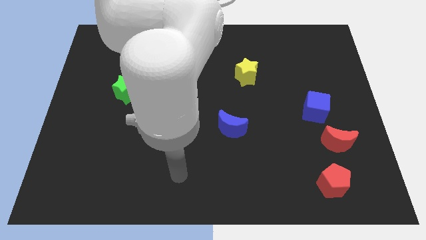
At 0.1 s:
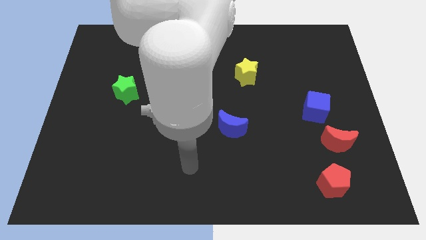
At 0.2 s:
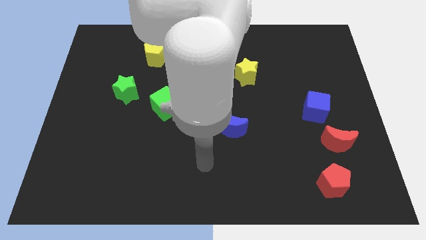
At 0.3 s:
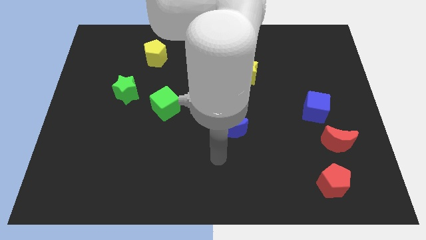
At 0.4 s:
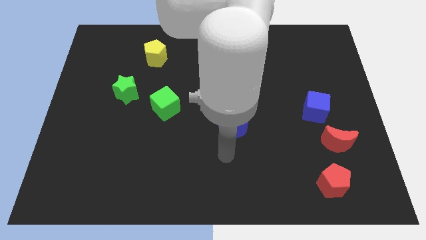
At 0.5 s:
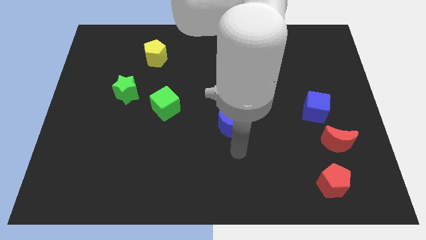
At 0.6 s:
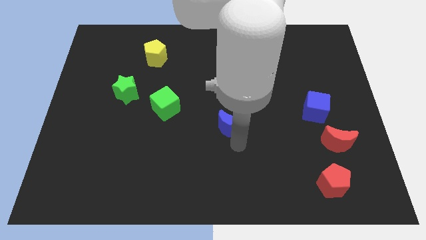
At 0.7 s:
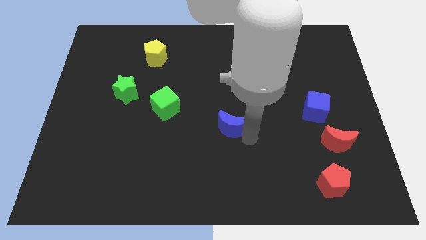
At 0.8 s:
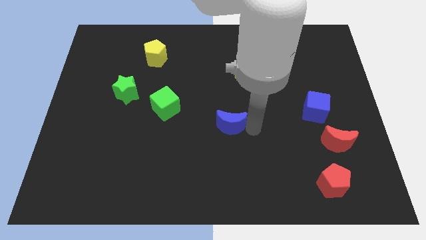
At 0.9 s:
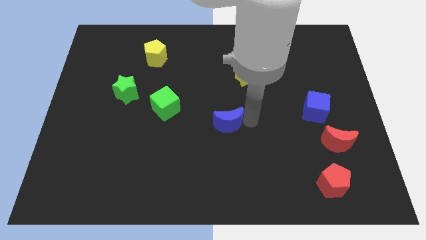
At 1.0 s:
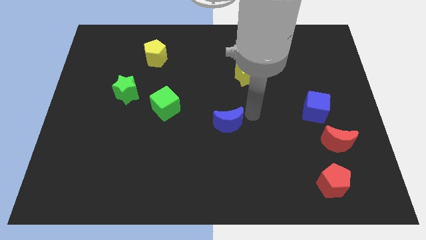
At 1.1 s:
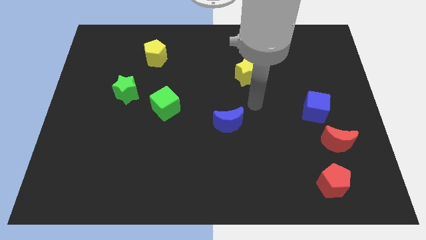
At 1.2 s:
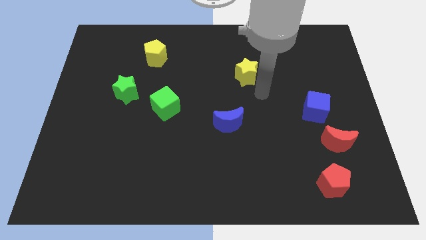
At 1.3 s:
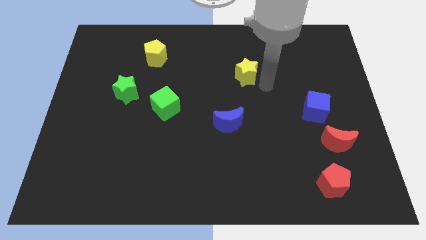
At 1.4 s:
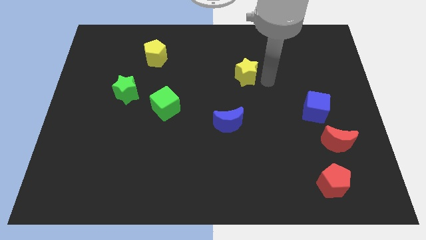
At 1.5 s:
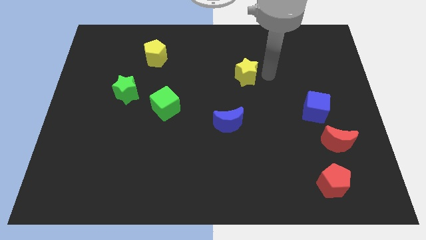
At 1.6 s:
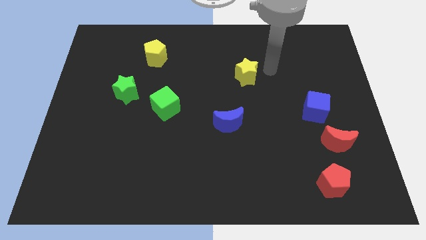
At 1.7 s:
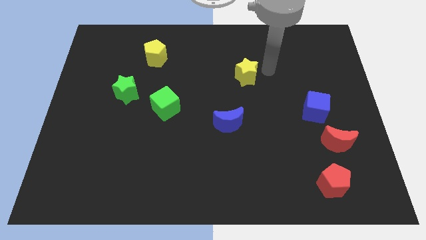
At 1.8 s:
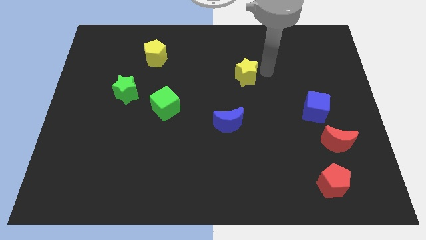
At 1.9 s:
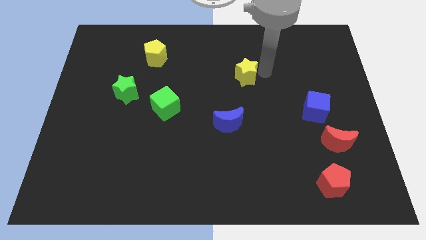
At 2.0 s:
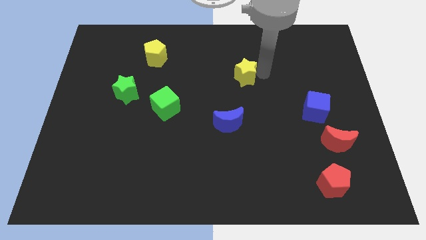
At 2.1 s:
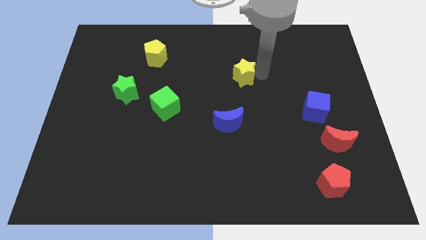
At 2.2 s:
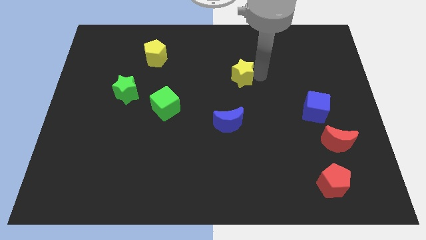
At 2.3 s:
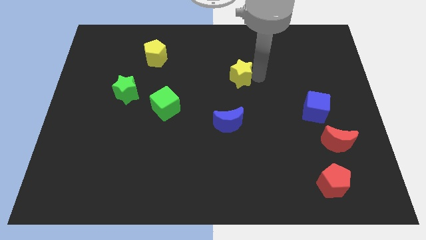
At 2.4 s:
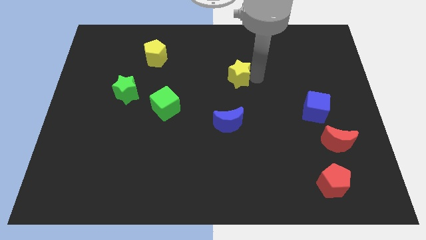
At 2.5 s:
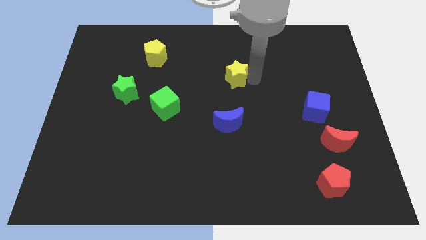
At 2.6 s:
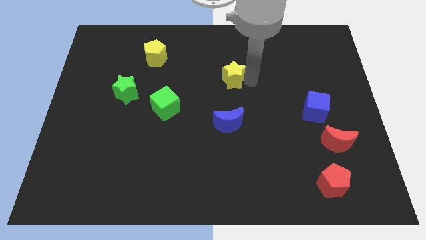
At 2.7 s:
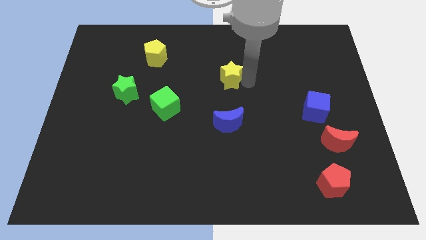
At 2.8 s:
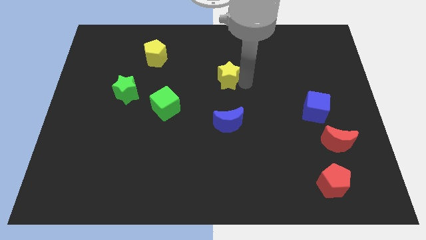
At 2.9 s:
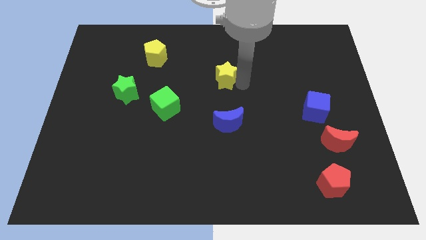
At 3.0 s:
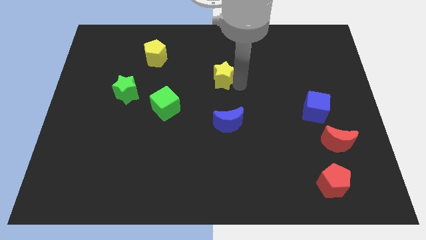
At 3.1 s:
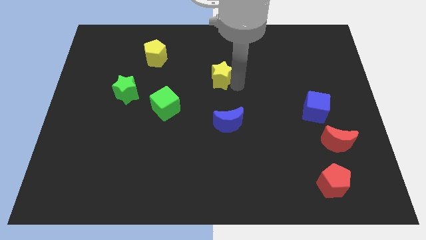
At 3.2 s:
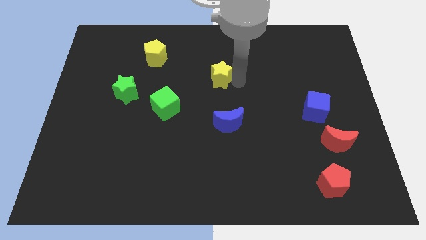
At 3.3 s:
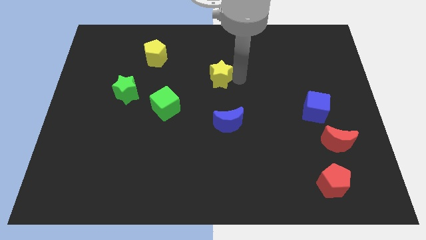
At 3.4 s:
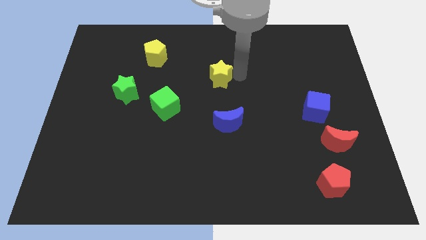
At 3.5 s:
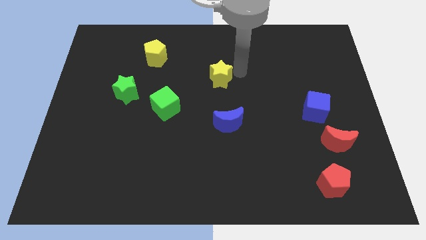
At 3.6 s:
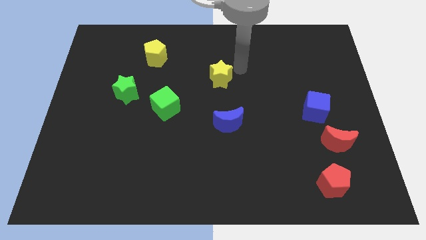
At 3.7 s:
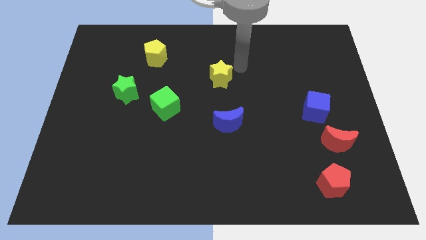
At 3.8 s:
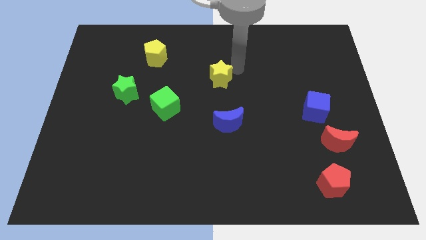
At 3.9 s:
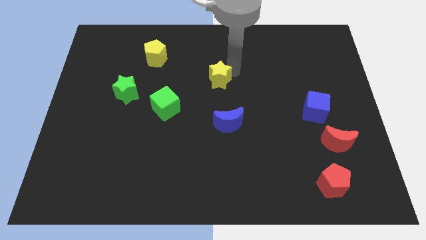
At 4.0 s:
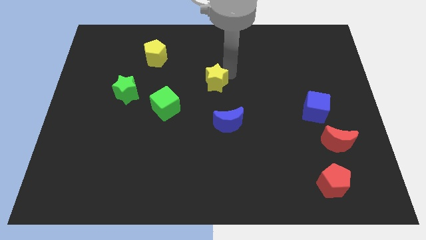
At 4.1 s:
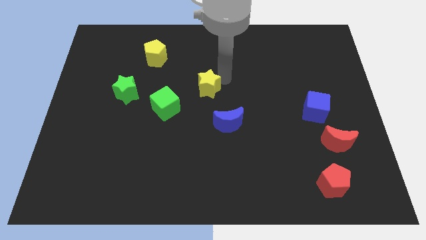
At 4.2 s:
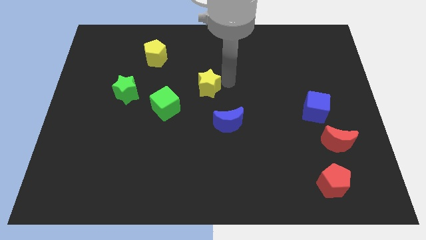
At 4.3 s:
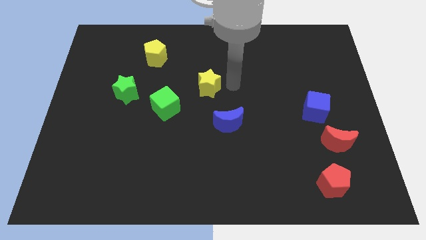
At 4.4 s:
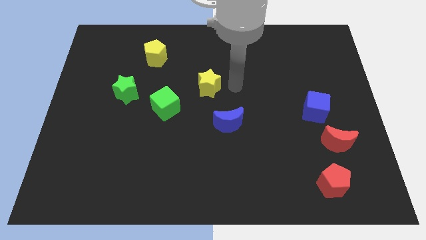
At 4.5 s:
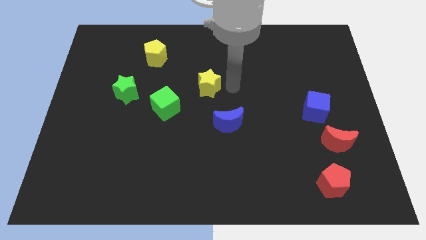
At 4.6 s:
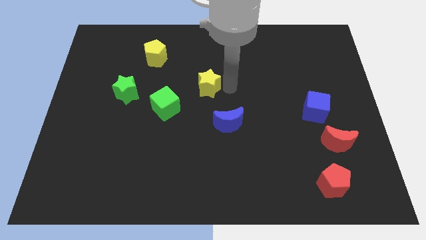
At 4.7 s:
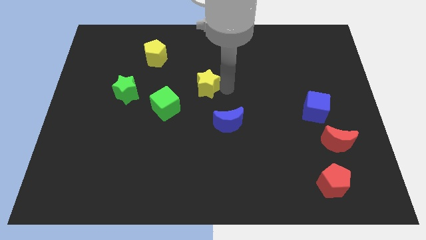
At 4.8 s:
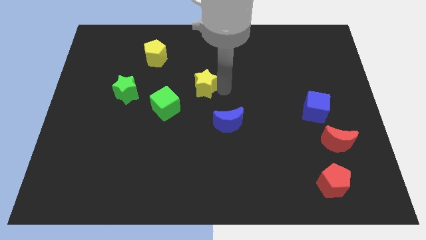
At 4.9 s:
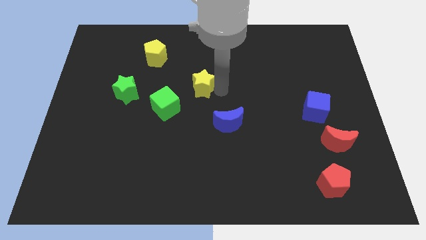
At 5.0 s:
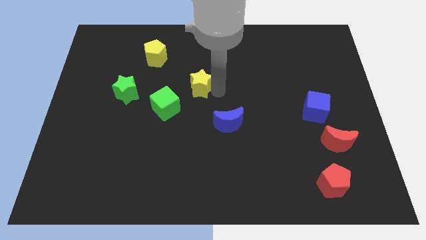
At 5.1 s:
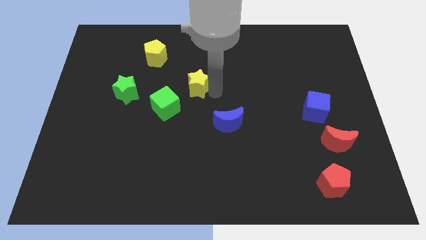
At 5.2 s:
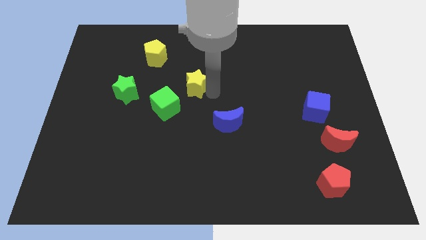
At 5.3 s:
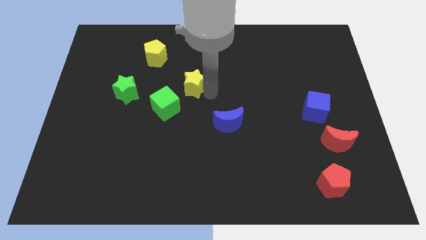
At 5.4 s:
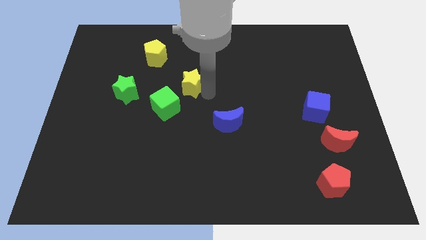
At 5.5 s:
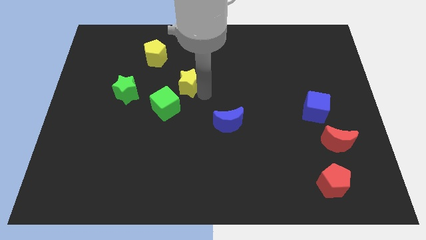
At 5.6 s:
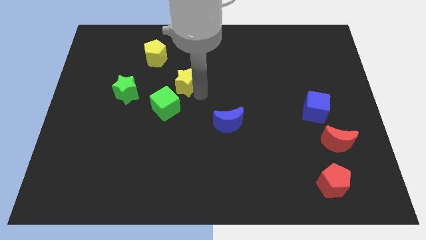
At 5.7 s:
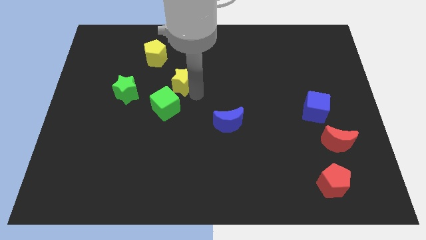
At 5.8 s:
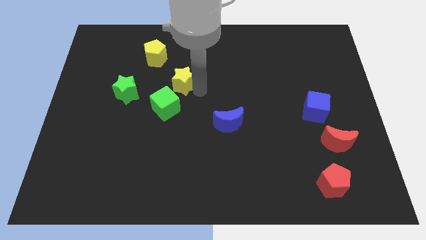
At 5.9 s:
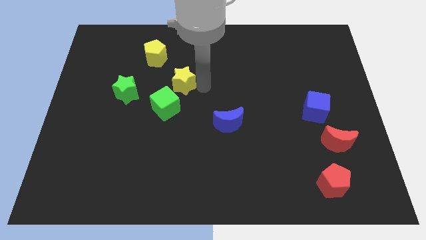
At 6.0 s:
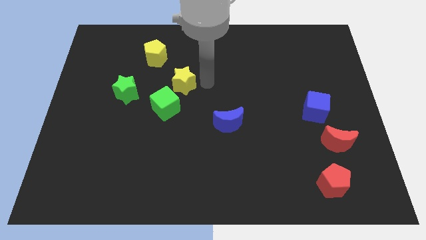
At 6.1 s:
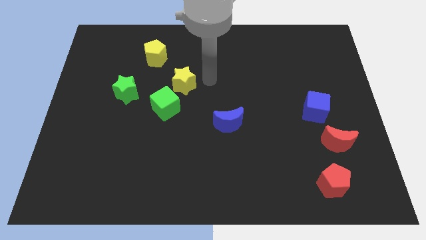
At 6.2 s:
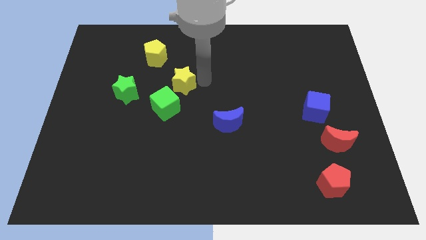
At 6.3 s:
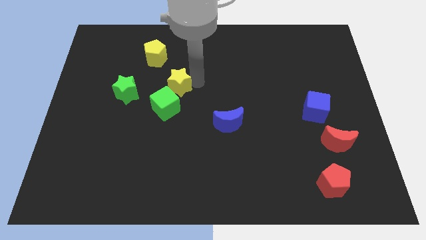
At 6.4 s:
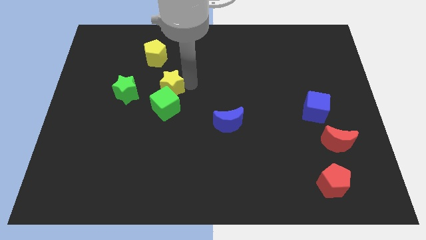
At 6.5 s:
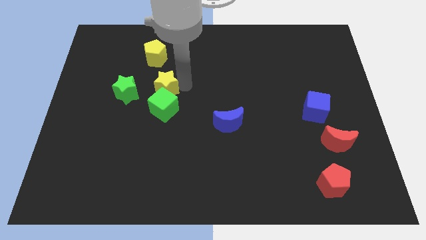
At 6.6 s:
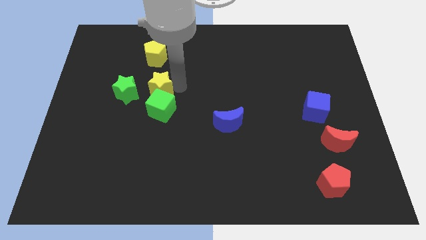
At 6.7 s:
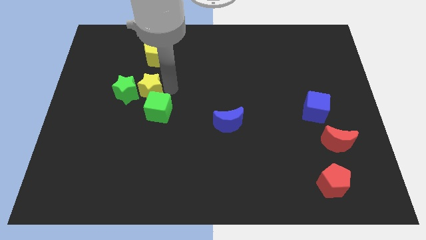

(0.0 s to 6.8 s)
put the yellow star close to the green star
